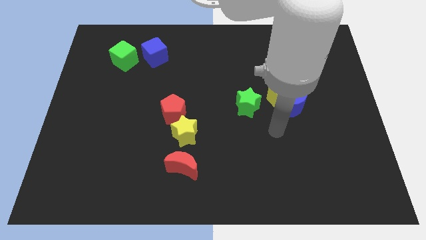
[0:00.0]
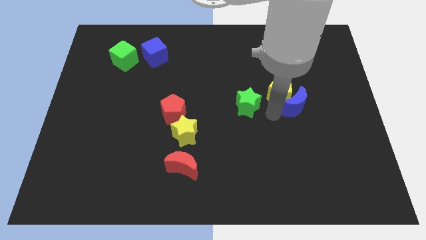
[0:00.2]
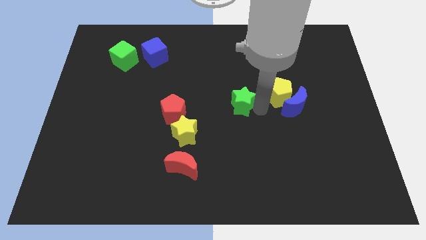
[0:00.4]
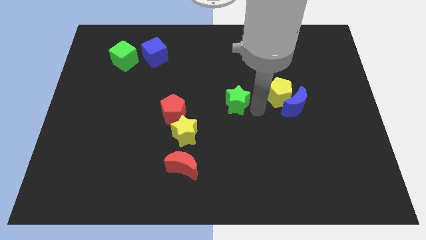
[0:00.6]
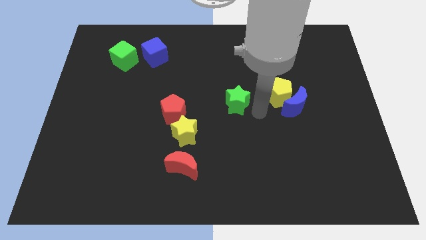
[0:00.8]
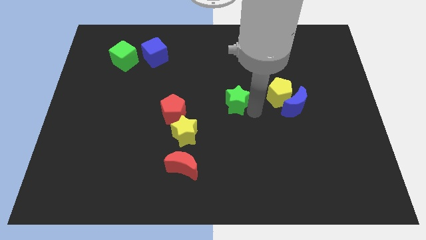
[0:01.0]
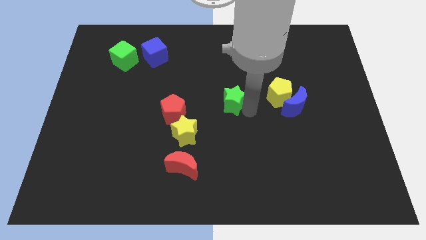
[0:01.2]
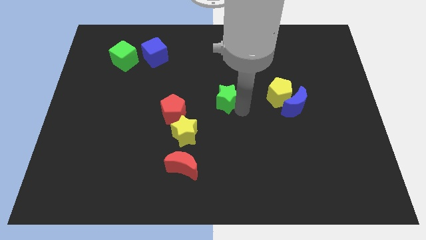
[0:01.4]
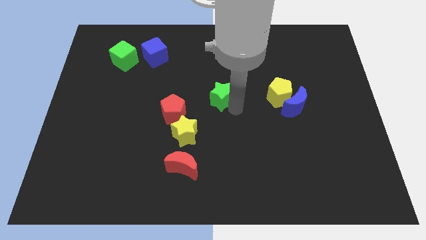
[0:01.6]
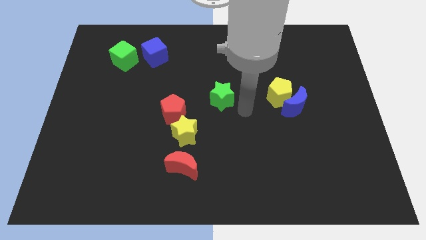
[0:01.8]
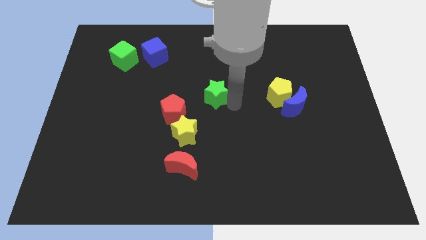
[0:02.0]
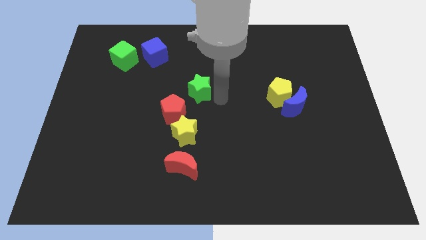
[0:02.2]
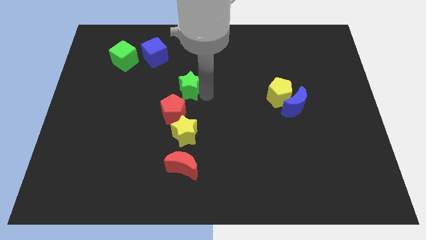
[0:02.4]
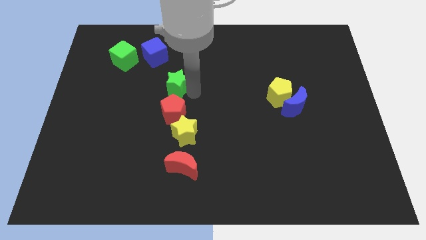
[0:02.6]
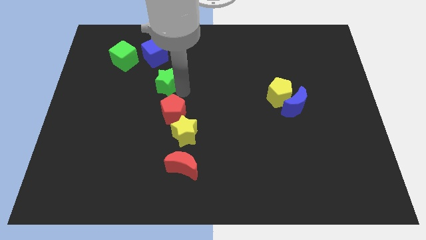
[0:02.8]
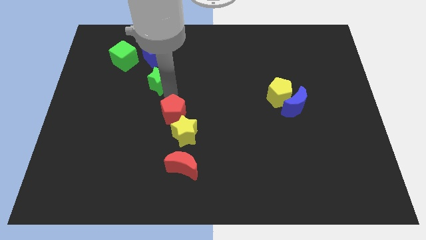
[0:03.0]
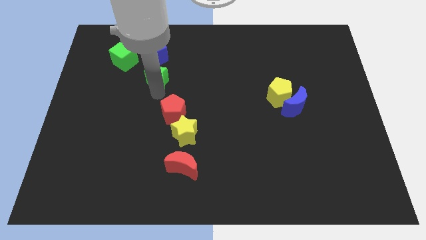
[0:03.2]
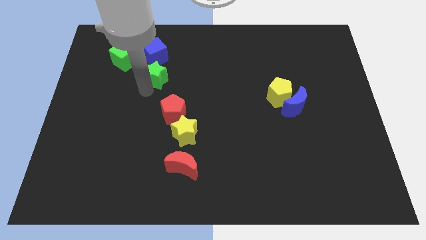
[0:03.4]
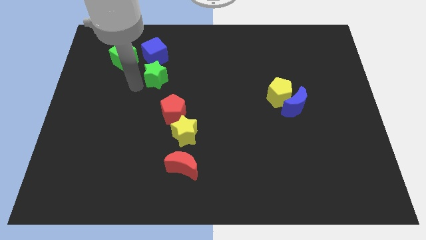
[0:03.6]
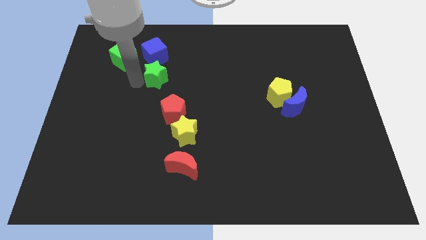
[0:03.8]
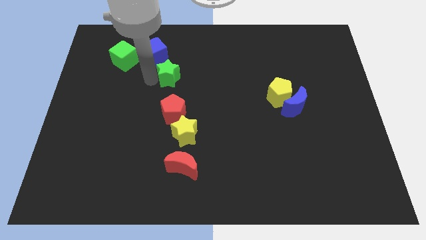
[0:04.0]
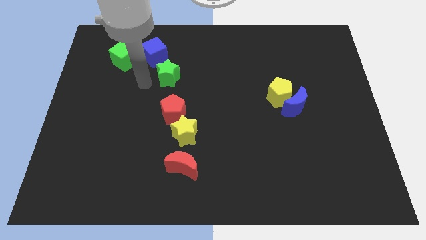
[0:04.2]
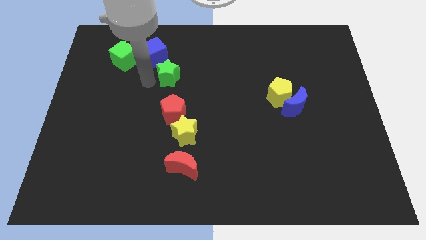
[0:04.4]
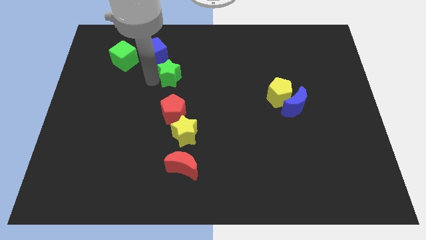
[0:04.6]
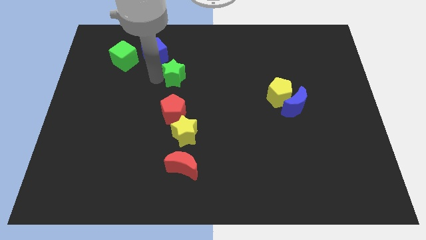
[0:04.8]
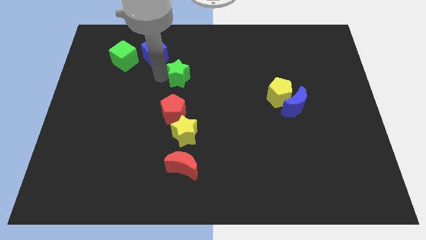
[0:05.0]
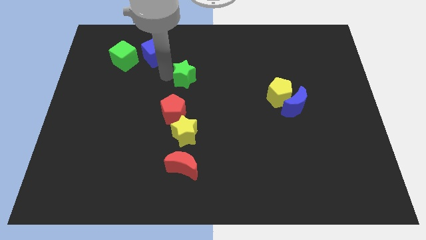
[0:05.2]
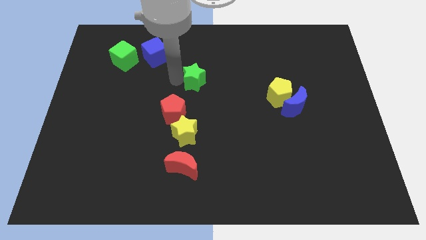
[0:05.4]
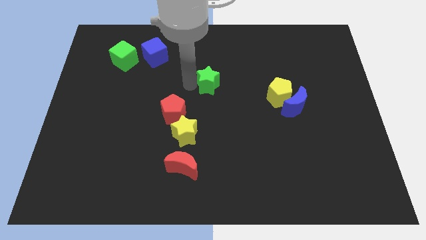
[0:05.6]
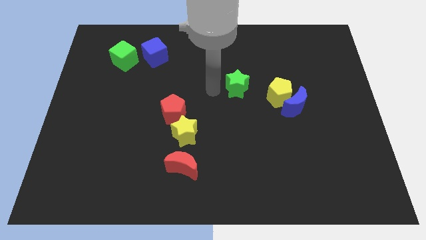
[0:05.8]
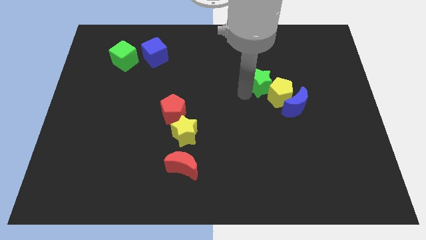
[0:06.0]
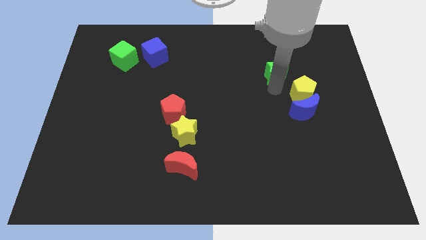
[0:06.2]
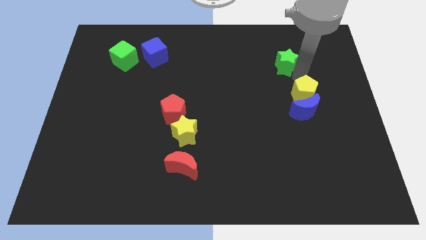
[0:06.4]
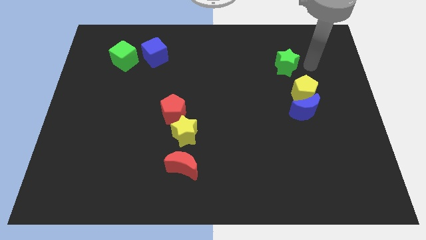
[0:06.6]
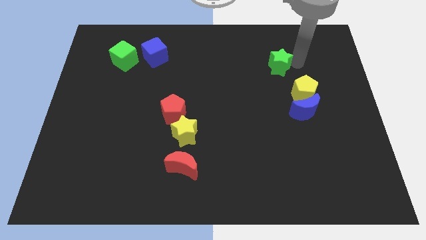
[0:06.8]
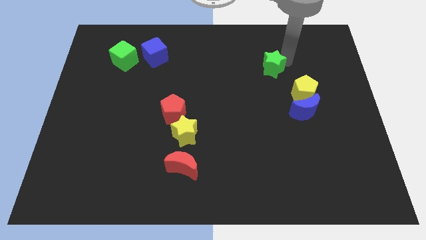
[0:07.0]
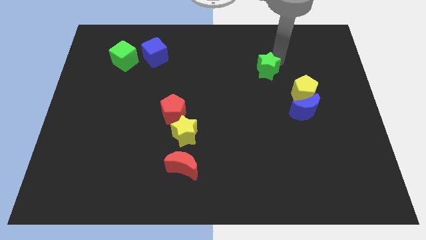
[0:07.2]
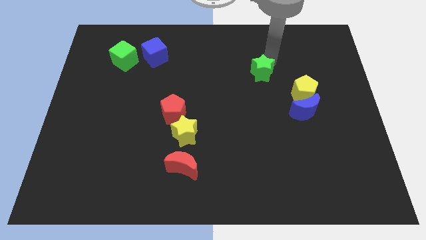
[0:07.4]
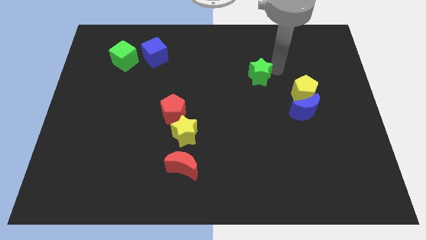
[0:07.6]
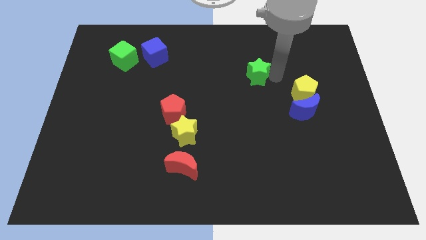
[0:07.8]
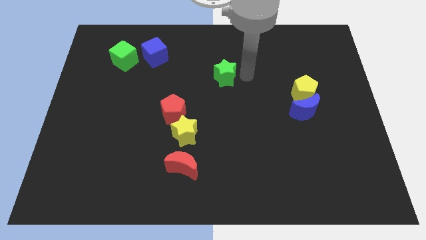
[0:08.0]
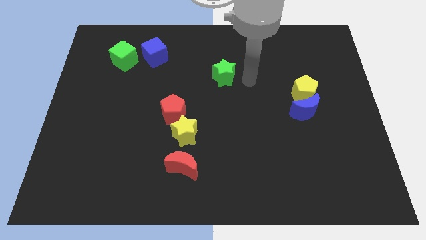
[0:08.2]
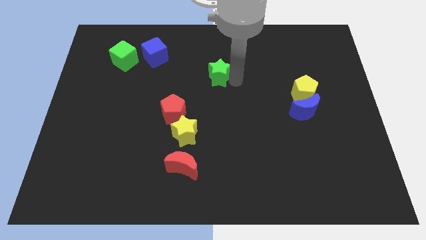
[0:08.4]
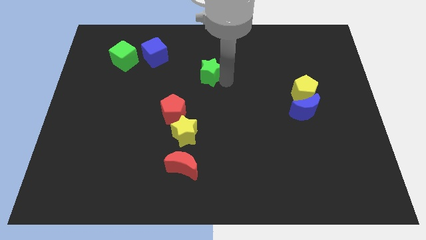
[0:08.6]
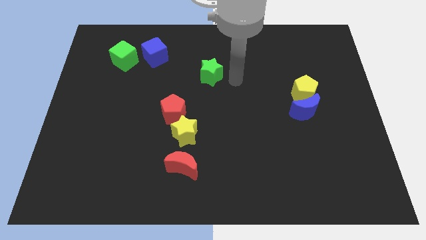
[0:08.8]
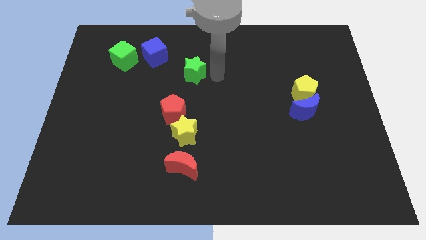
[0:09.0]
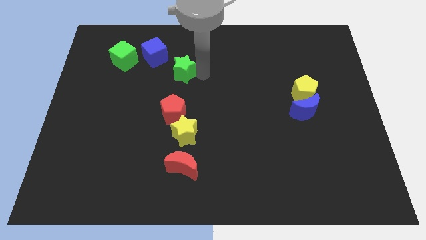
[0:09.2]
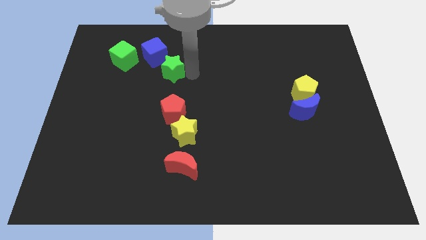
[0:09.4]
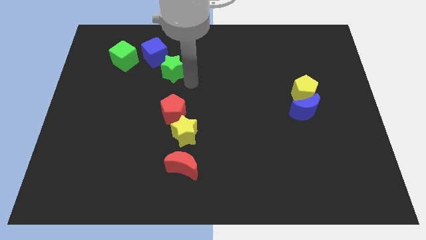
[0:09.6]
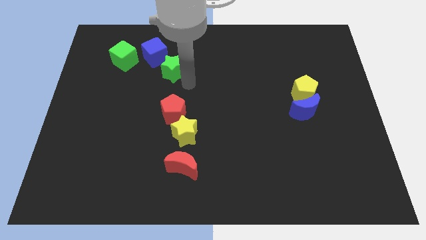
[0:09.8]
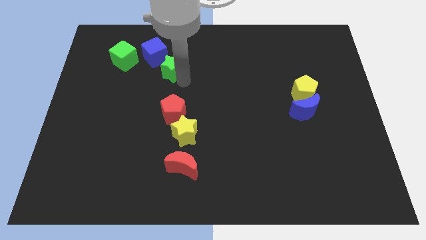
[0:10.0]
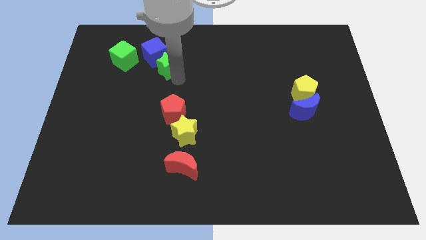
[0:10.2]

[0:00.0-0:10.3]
push the green star to the blue cube

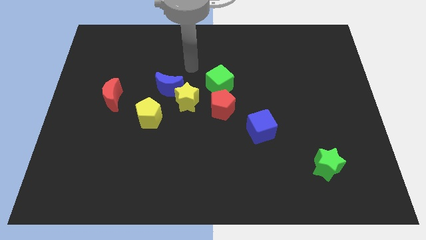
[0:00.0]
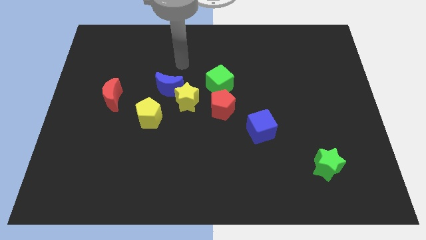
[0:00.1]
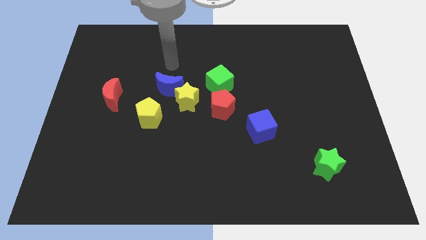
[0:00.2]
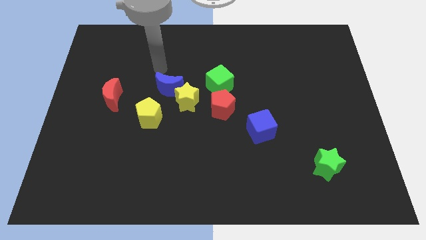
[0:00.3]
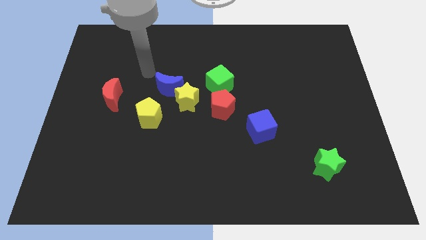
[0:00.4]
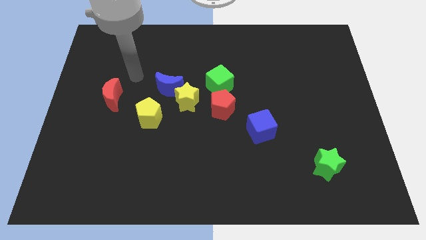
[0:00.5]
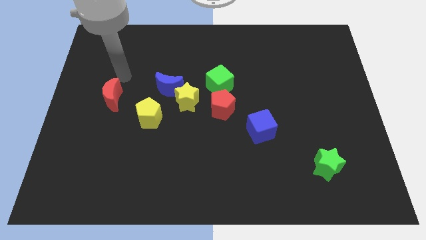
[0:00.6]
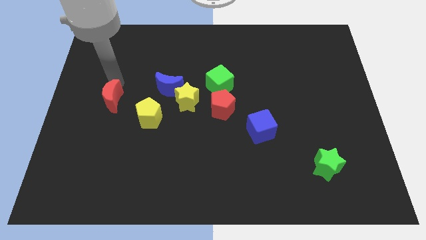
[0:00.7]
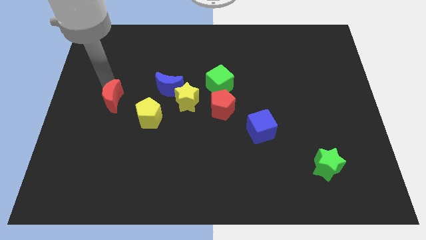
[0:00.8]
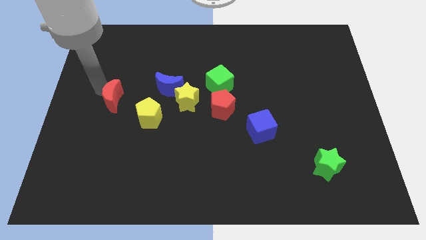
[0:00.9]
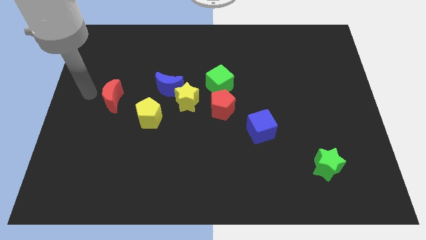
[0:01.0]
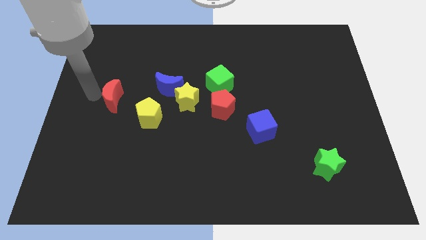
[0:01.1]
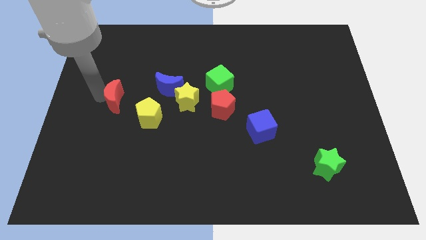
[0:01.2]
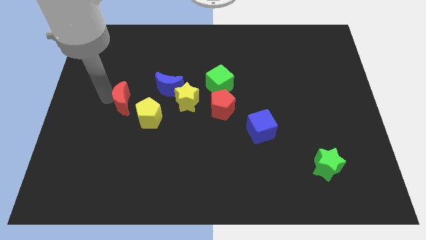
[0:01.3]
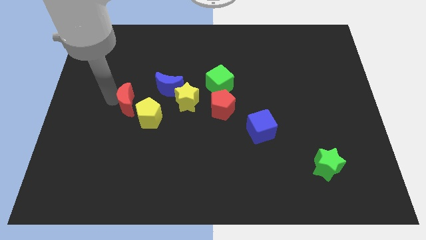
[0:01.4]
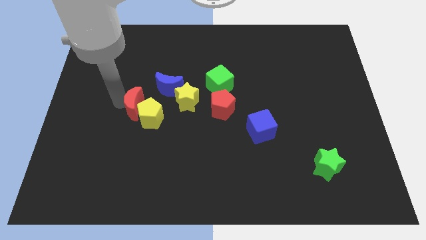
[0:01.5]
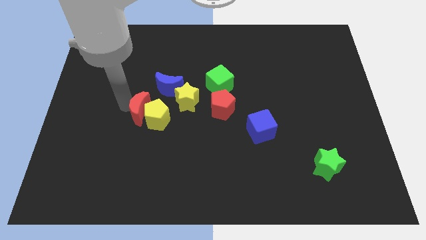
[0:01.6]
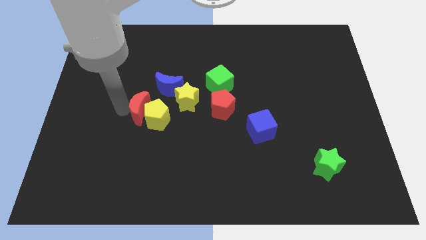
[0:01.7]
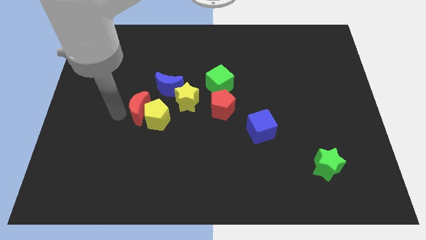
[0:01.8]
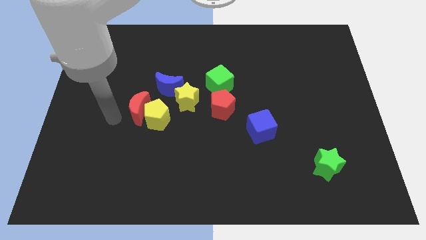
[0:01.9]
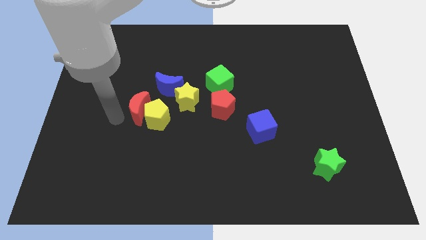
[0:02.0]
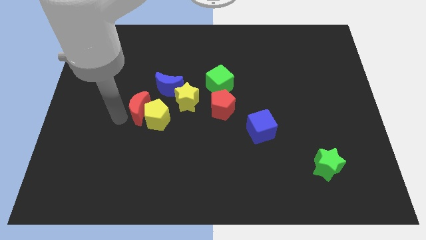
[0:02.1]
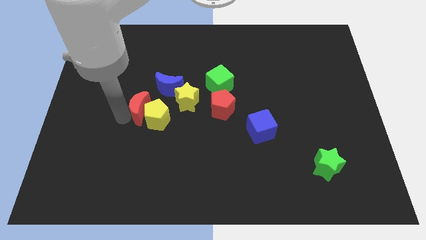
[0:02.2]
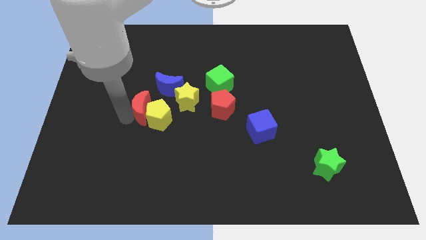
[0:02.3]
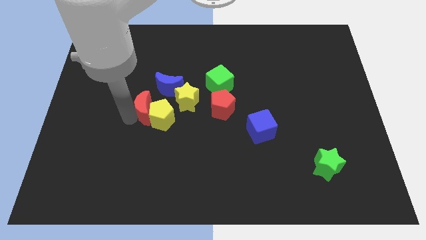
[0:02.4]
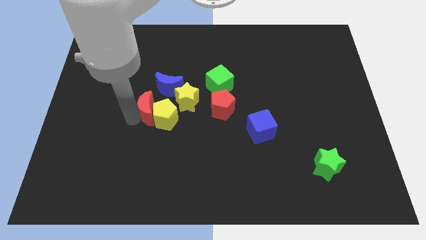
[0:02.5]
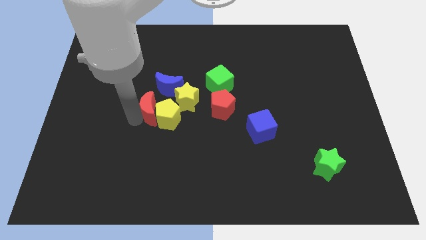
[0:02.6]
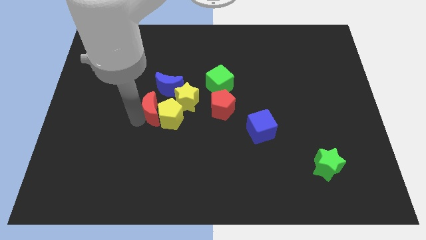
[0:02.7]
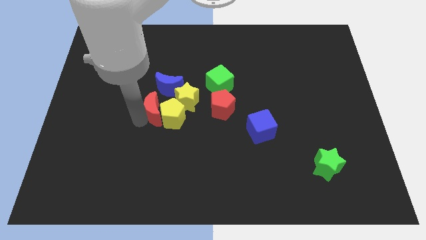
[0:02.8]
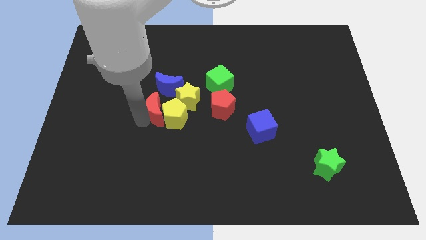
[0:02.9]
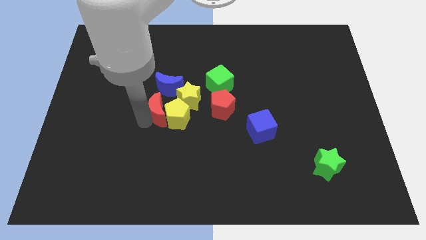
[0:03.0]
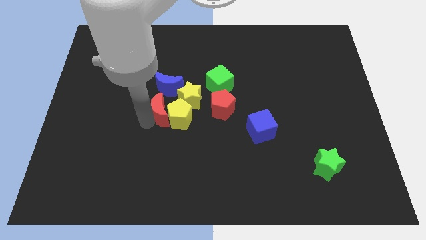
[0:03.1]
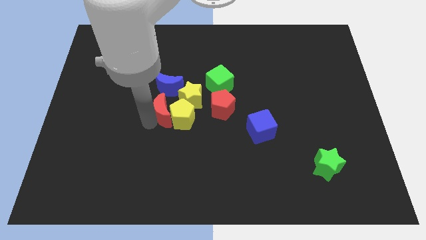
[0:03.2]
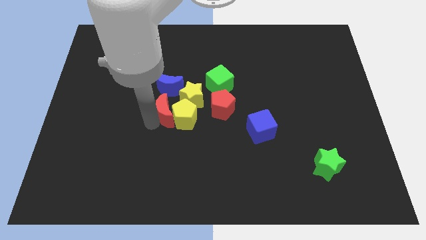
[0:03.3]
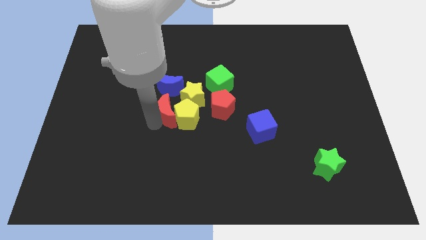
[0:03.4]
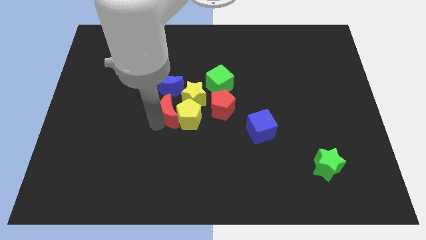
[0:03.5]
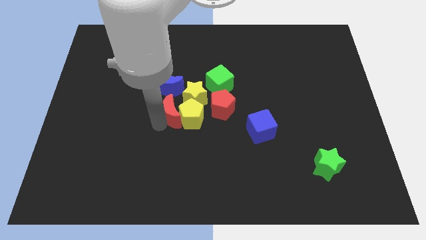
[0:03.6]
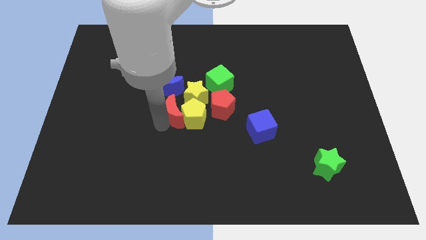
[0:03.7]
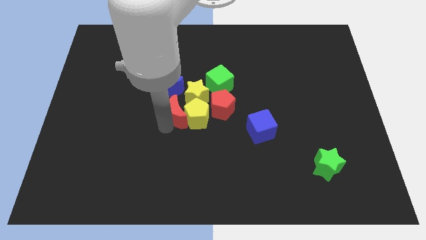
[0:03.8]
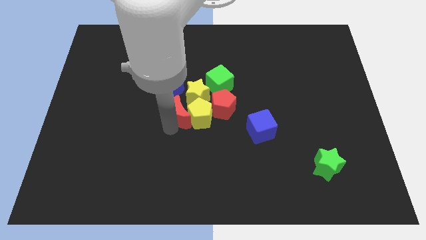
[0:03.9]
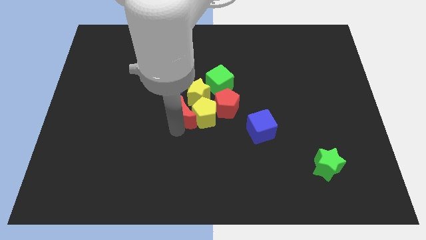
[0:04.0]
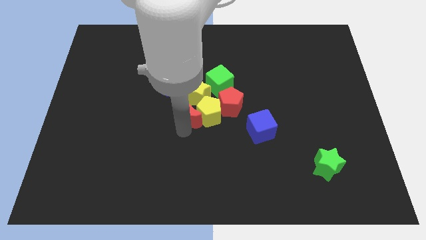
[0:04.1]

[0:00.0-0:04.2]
slide the red moon towards the yellow star
